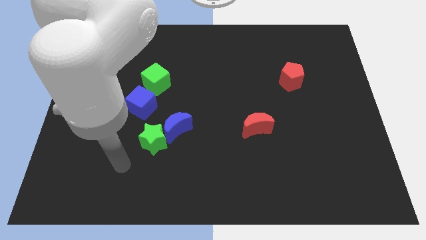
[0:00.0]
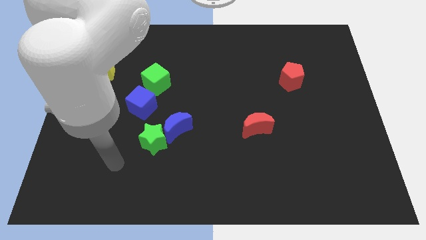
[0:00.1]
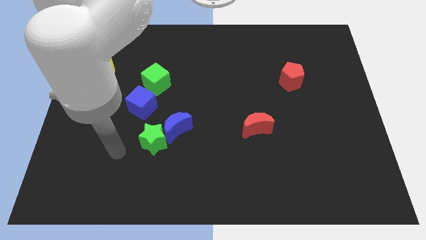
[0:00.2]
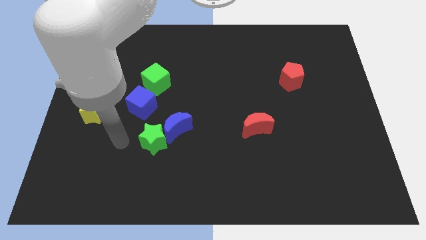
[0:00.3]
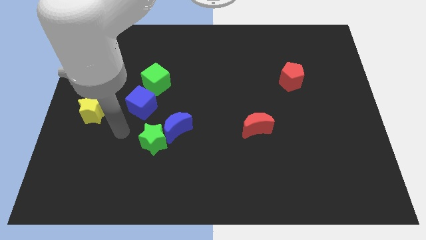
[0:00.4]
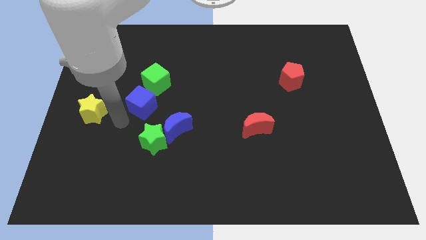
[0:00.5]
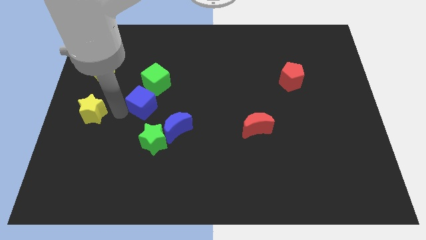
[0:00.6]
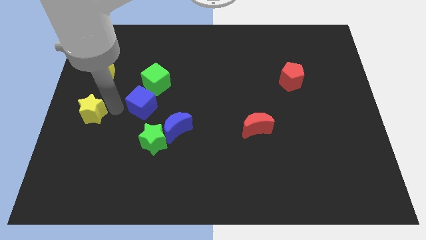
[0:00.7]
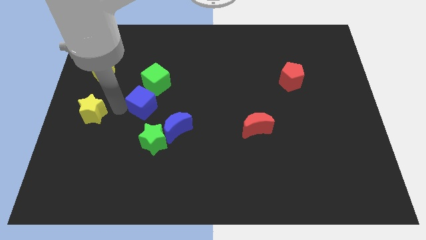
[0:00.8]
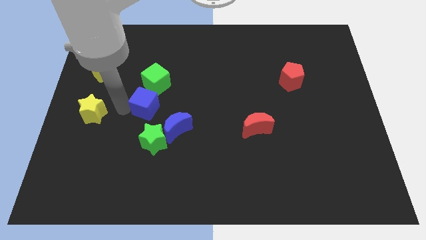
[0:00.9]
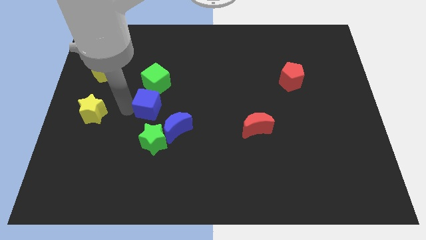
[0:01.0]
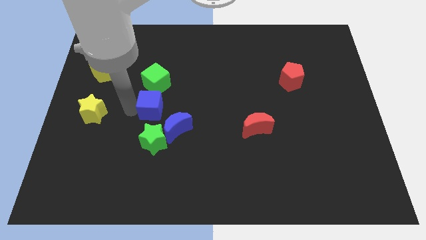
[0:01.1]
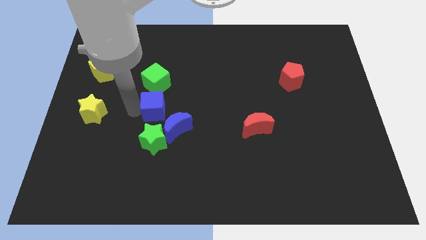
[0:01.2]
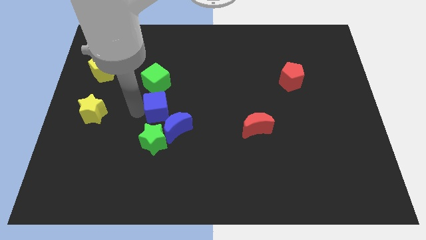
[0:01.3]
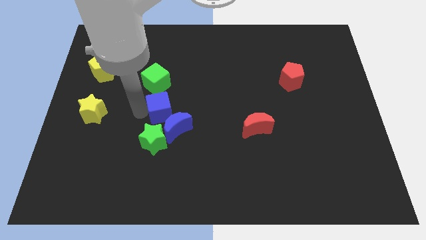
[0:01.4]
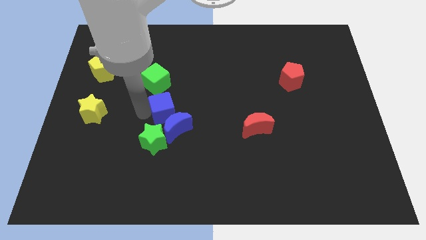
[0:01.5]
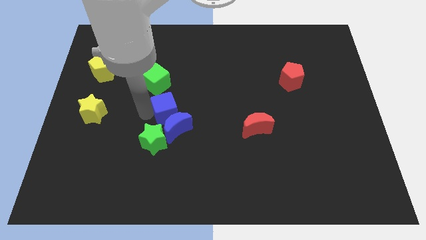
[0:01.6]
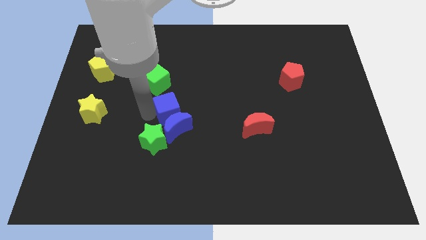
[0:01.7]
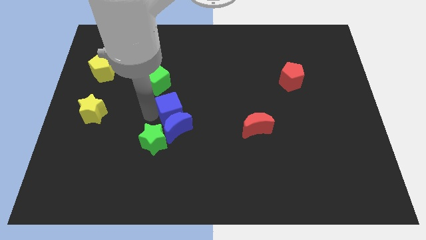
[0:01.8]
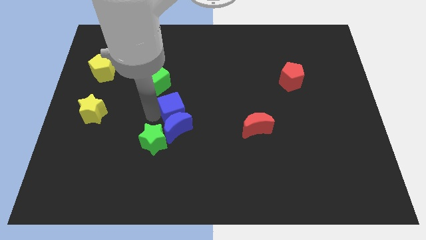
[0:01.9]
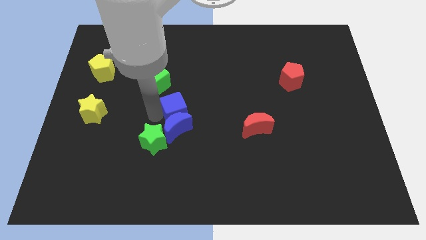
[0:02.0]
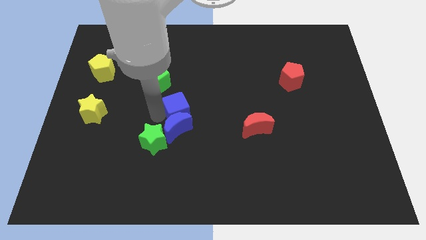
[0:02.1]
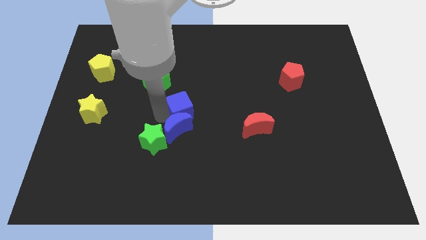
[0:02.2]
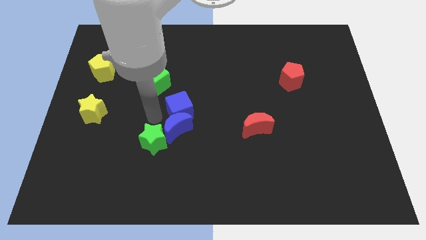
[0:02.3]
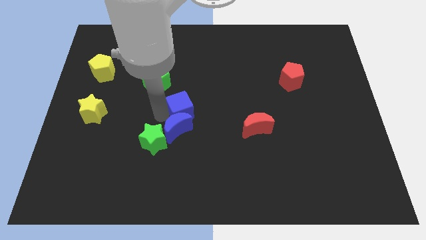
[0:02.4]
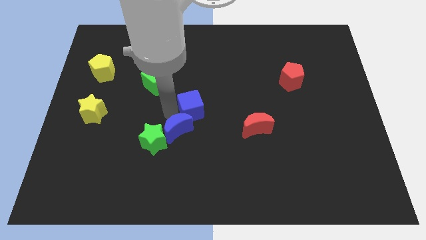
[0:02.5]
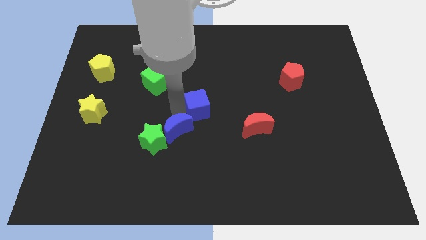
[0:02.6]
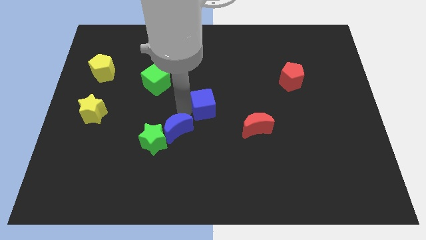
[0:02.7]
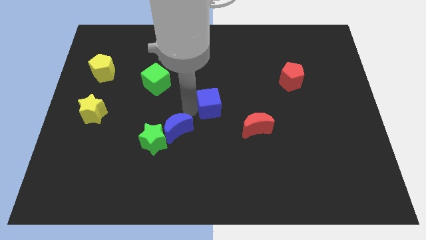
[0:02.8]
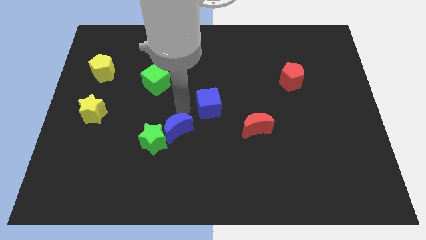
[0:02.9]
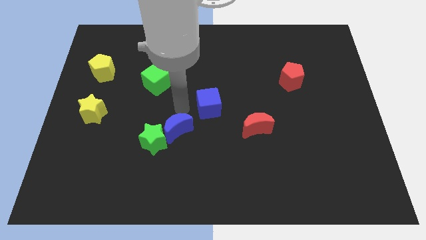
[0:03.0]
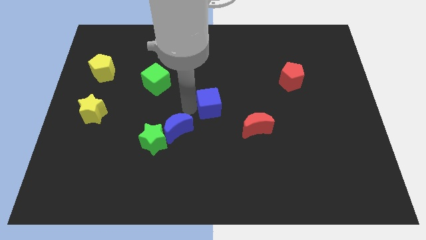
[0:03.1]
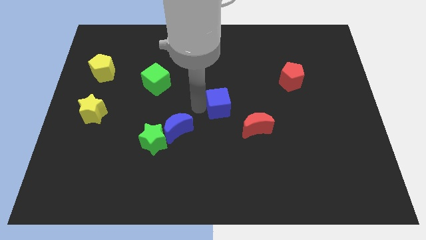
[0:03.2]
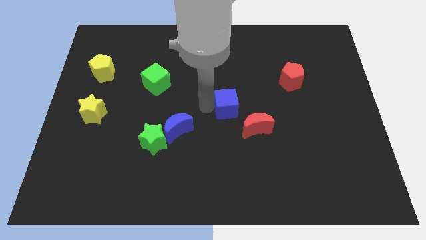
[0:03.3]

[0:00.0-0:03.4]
move the blue cube right

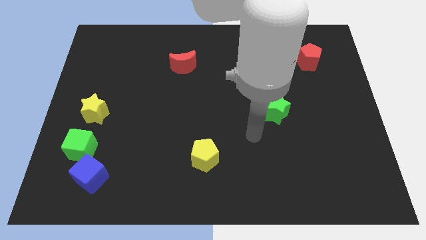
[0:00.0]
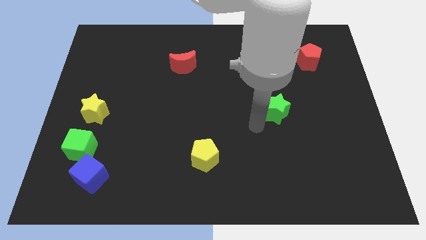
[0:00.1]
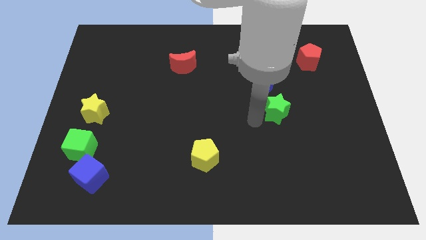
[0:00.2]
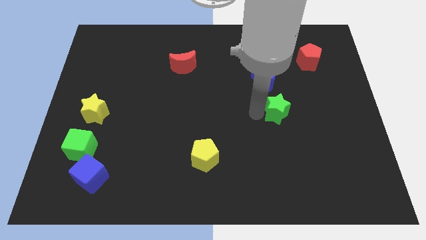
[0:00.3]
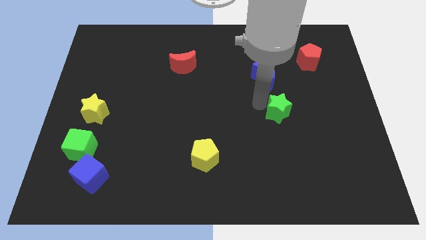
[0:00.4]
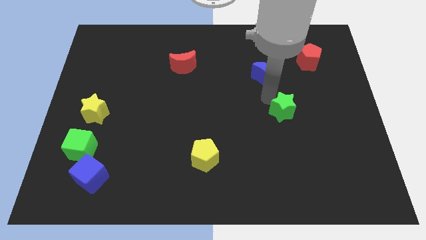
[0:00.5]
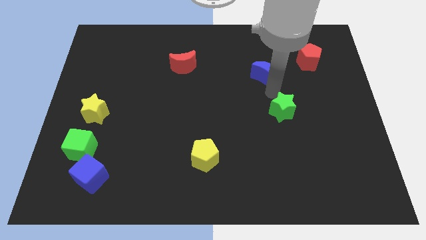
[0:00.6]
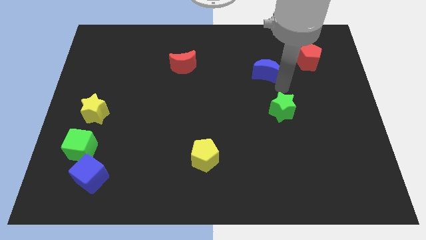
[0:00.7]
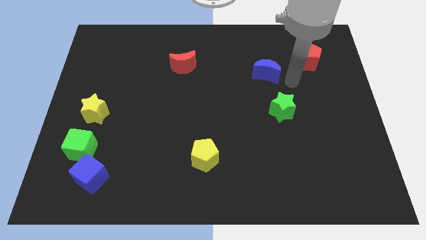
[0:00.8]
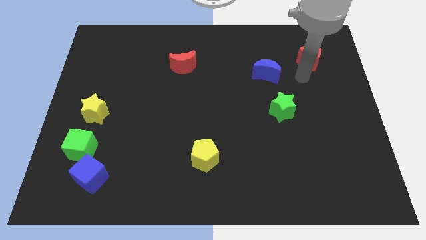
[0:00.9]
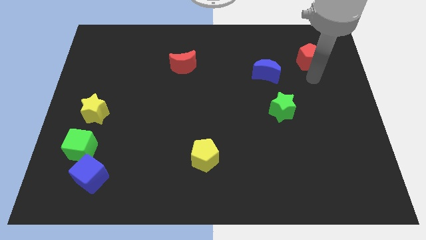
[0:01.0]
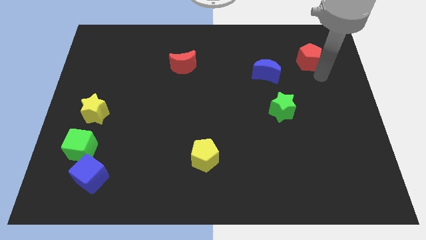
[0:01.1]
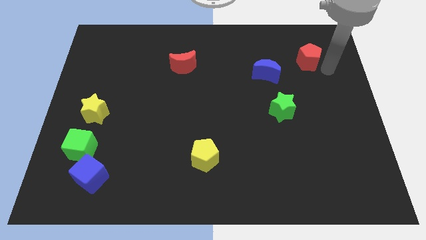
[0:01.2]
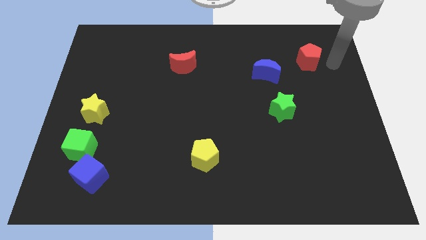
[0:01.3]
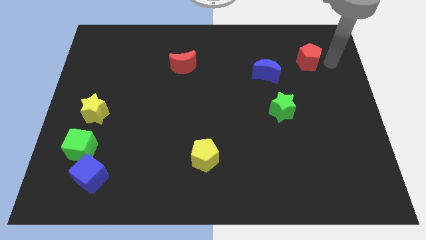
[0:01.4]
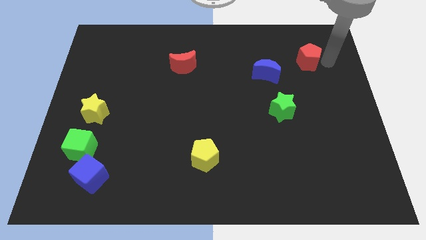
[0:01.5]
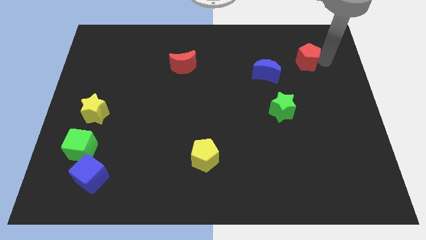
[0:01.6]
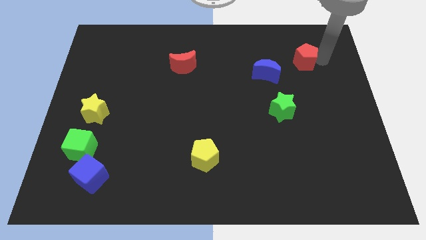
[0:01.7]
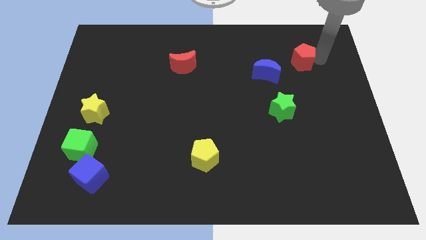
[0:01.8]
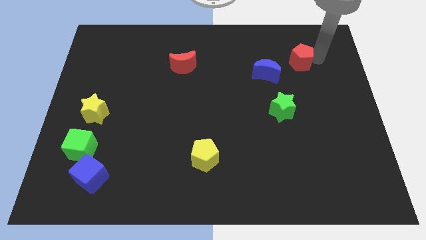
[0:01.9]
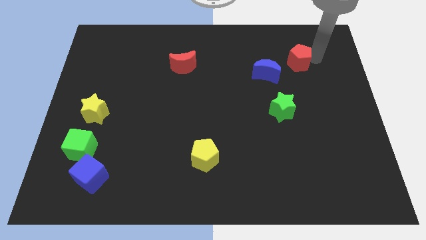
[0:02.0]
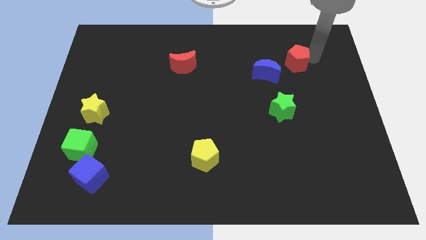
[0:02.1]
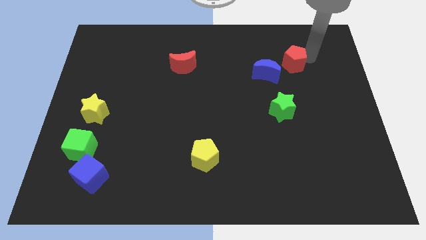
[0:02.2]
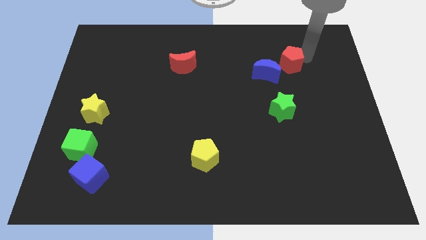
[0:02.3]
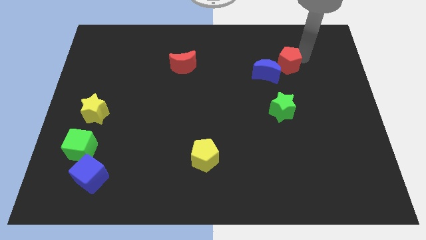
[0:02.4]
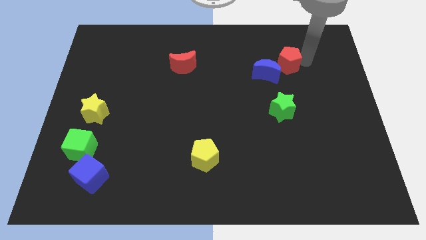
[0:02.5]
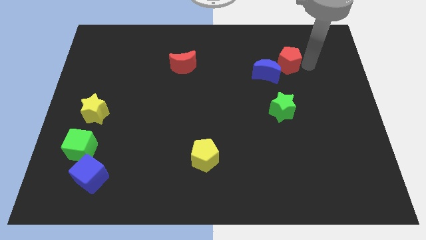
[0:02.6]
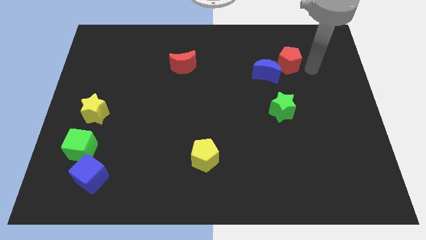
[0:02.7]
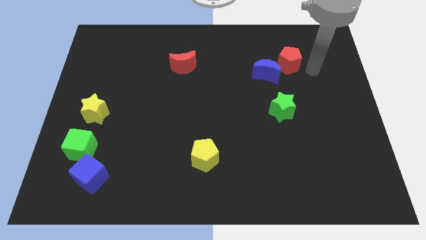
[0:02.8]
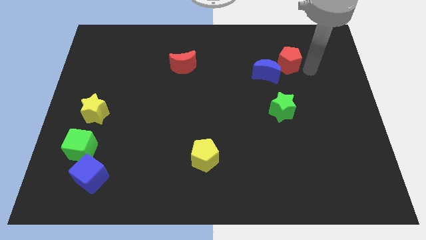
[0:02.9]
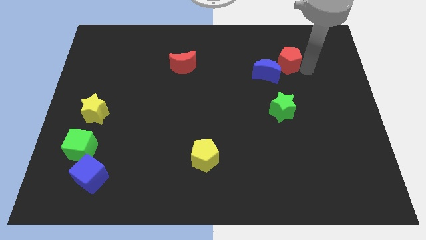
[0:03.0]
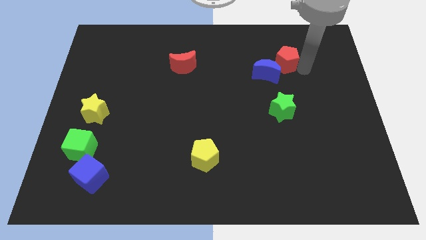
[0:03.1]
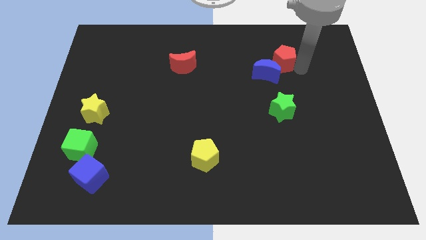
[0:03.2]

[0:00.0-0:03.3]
slightly push the red pentagon left

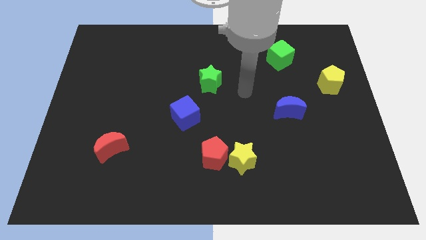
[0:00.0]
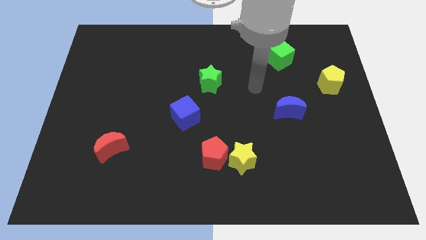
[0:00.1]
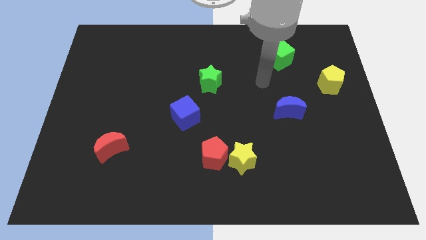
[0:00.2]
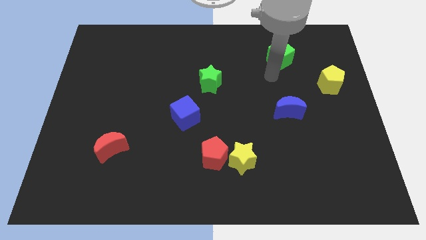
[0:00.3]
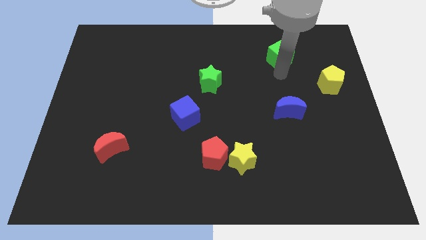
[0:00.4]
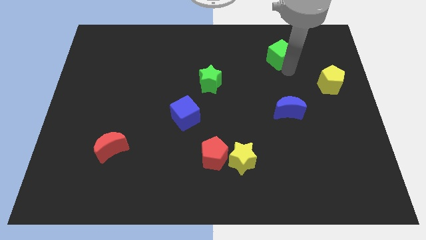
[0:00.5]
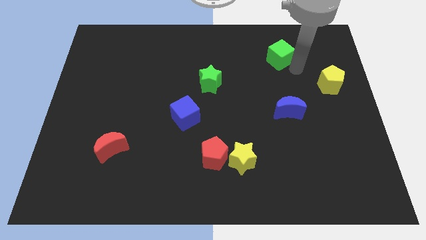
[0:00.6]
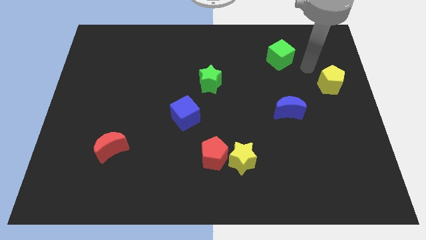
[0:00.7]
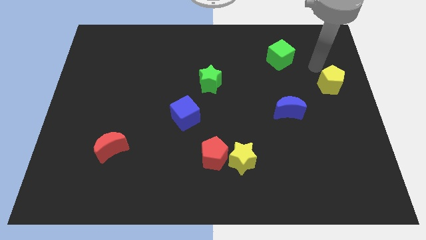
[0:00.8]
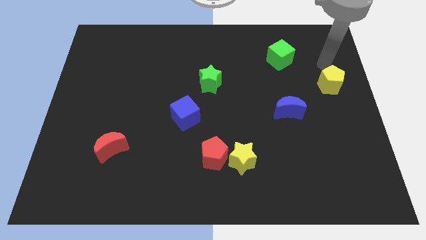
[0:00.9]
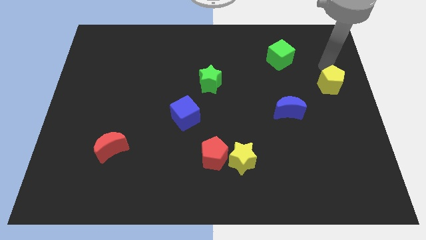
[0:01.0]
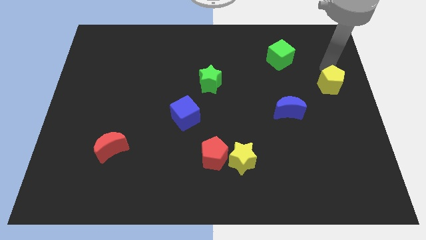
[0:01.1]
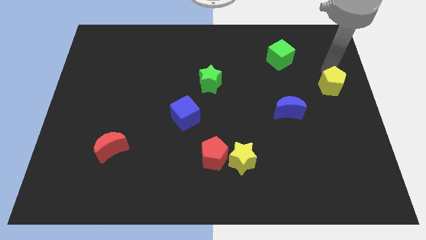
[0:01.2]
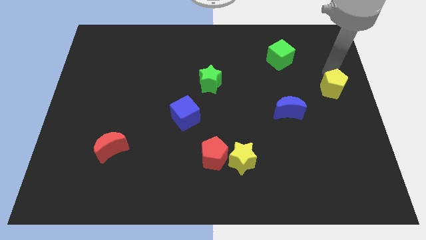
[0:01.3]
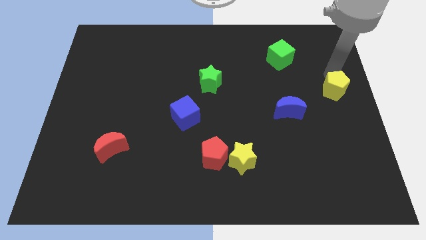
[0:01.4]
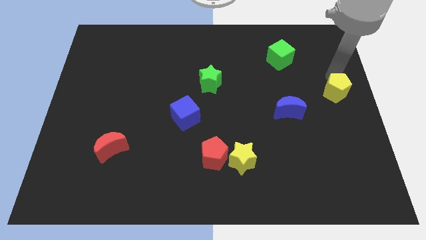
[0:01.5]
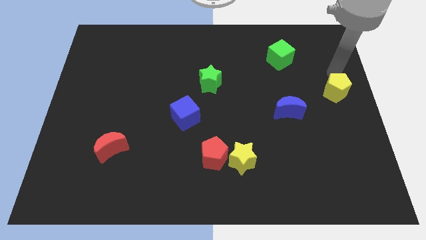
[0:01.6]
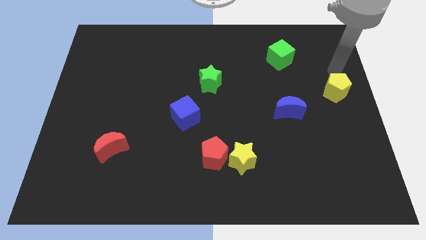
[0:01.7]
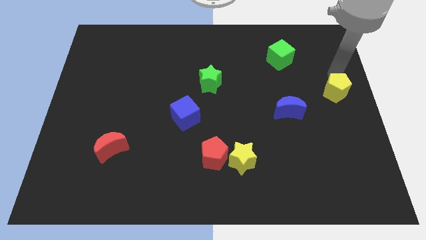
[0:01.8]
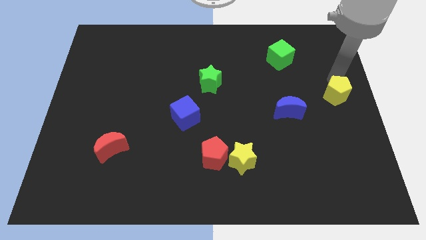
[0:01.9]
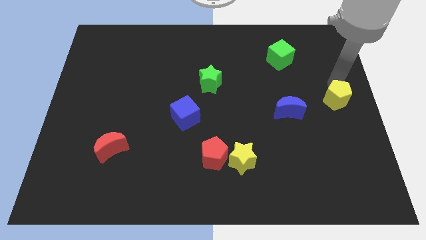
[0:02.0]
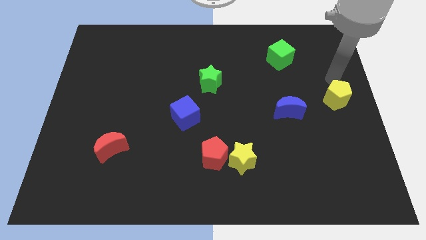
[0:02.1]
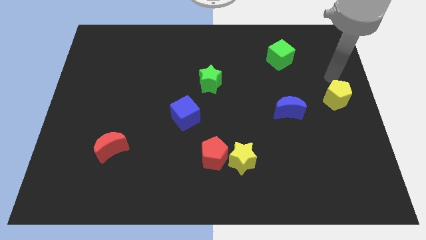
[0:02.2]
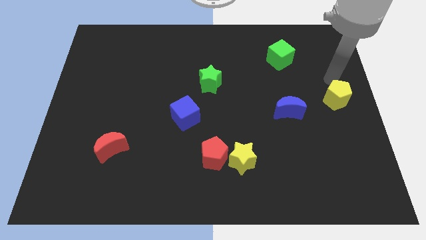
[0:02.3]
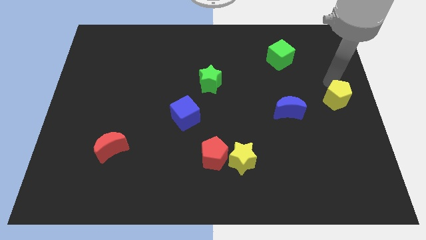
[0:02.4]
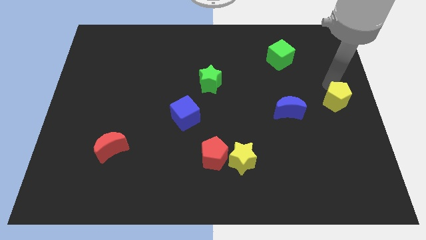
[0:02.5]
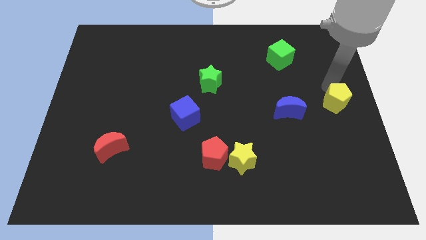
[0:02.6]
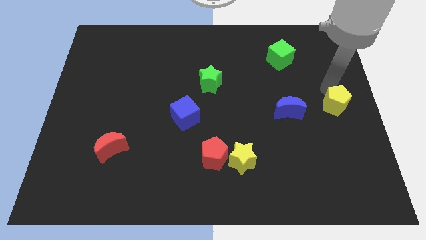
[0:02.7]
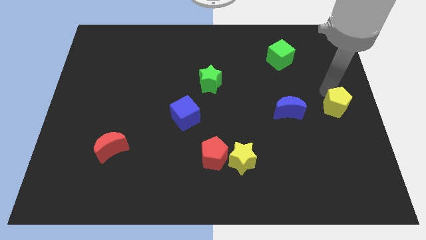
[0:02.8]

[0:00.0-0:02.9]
slide the yellow pentagon down somewhat
